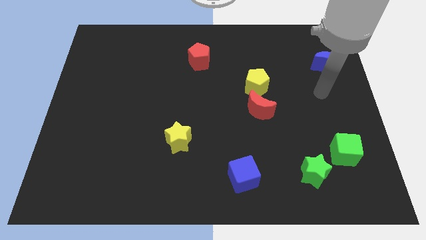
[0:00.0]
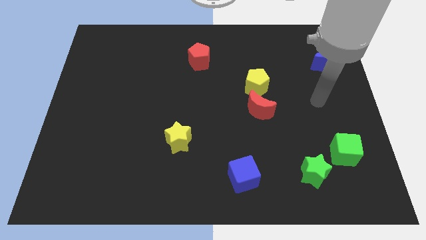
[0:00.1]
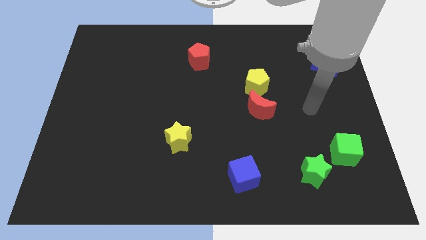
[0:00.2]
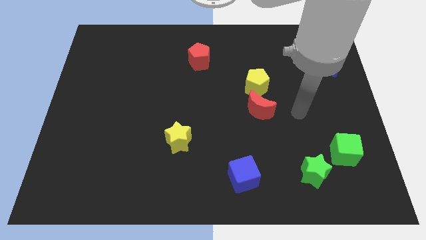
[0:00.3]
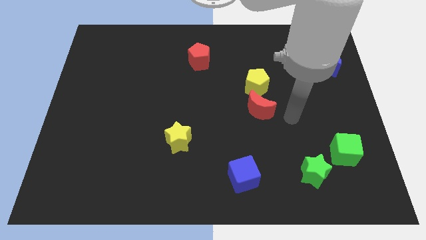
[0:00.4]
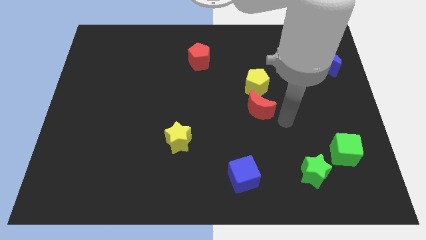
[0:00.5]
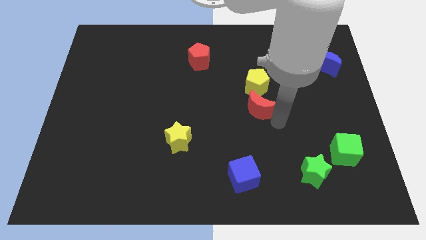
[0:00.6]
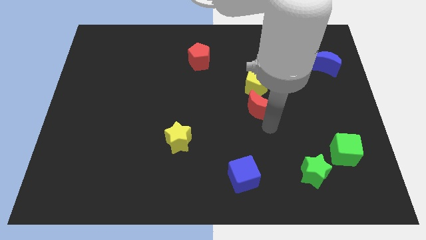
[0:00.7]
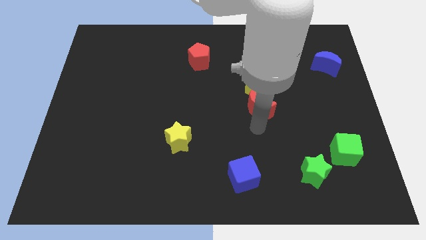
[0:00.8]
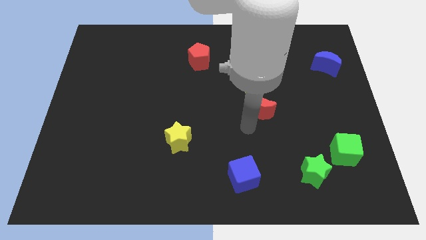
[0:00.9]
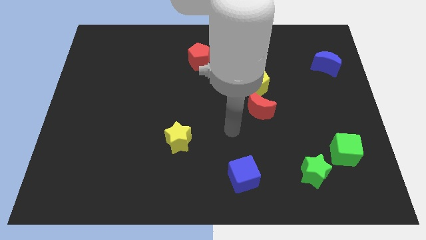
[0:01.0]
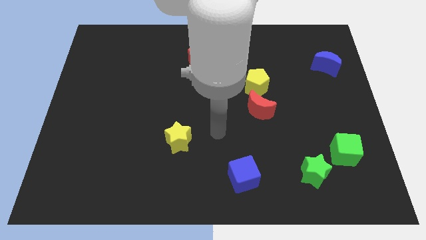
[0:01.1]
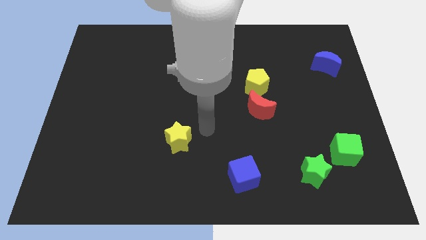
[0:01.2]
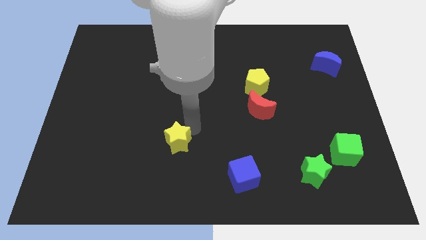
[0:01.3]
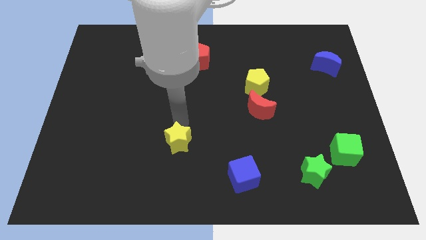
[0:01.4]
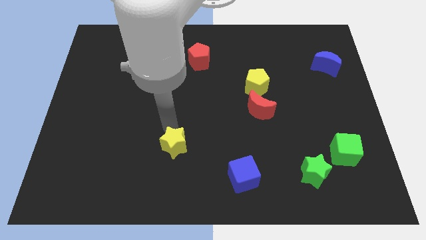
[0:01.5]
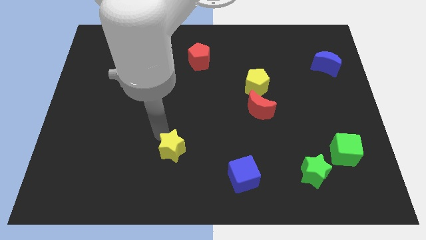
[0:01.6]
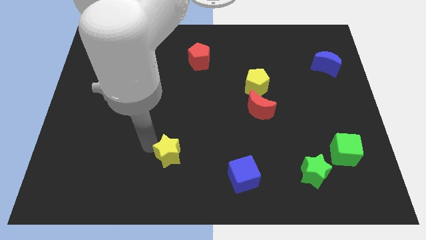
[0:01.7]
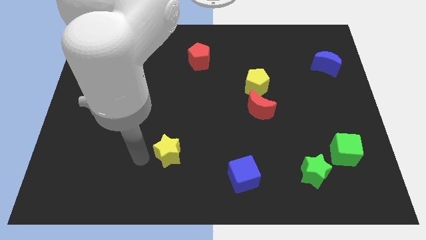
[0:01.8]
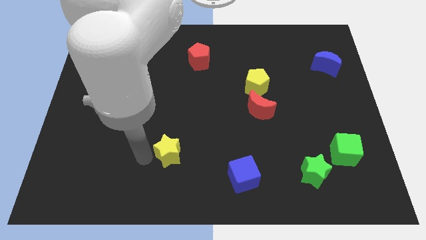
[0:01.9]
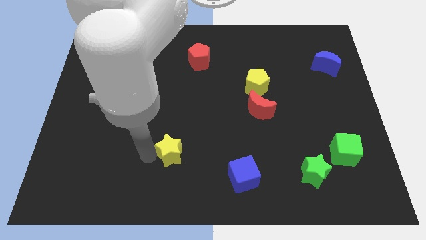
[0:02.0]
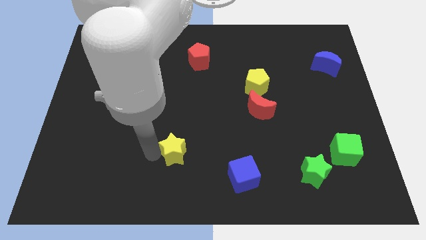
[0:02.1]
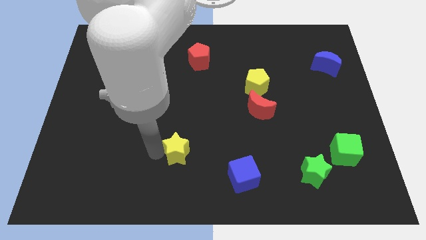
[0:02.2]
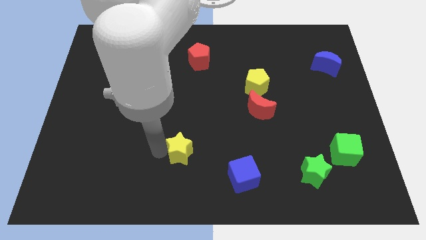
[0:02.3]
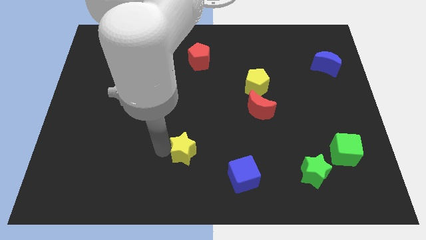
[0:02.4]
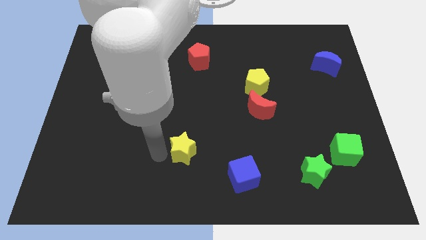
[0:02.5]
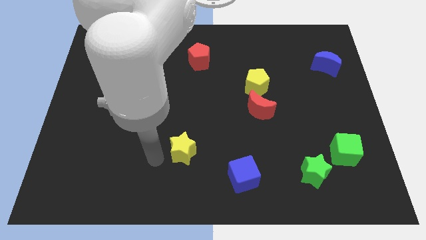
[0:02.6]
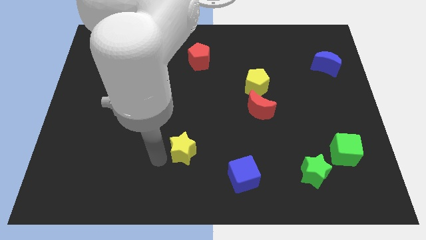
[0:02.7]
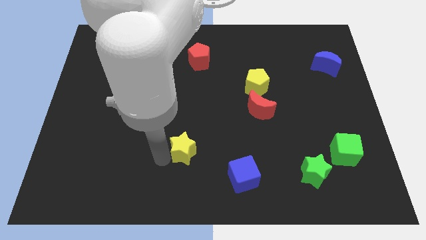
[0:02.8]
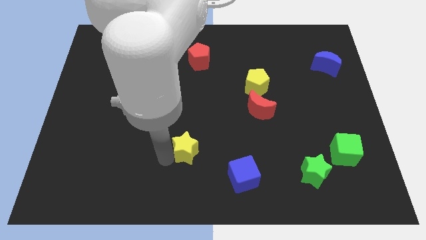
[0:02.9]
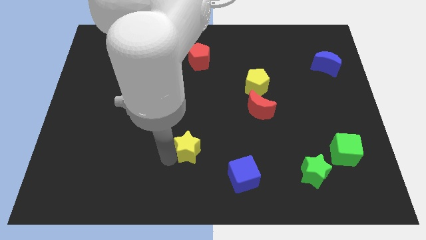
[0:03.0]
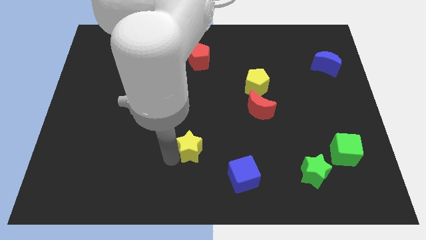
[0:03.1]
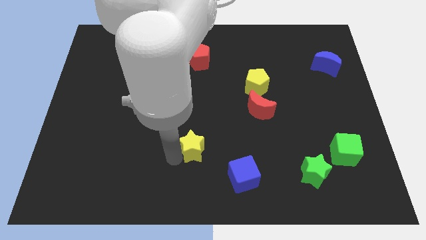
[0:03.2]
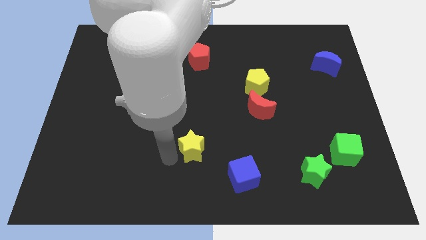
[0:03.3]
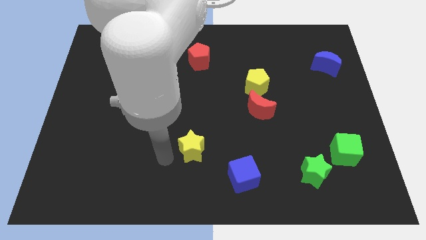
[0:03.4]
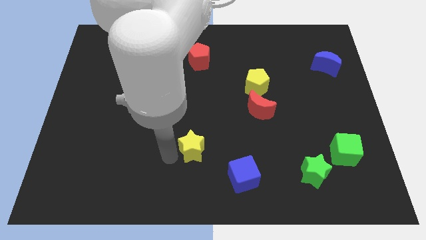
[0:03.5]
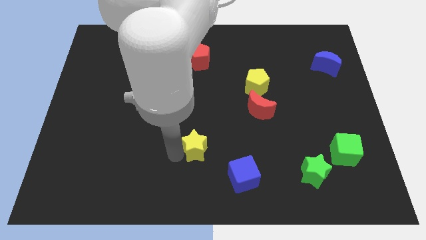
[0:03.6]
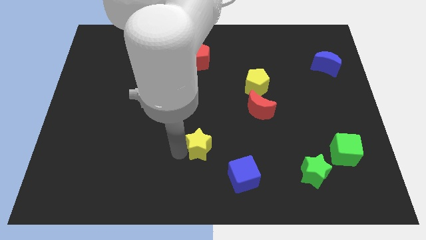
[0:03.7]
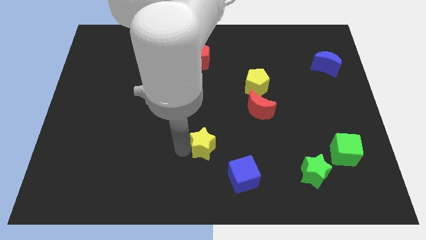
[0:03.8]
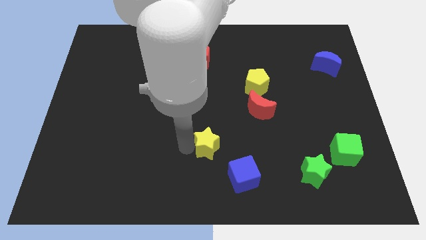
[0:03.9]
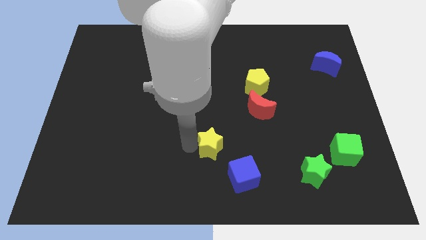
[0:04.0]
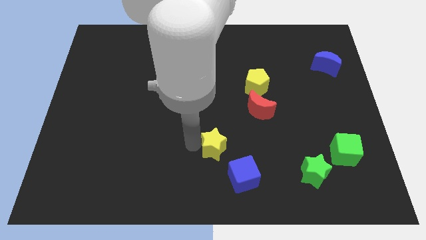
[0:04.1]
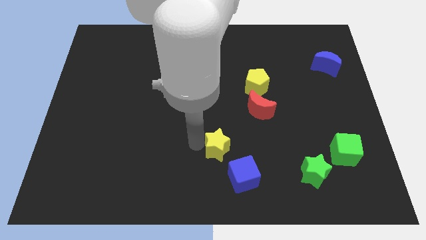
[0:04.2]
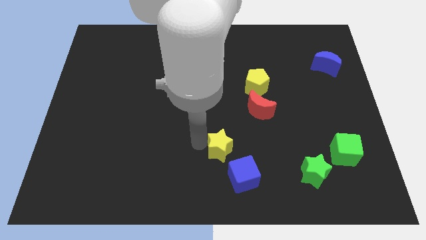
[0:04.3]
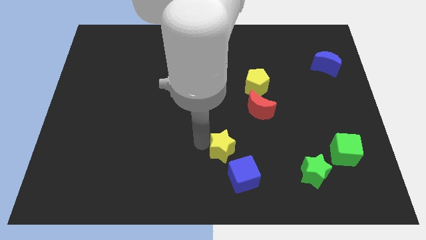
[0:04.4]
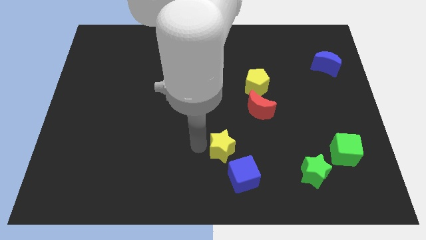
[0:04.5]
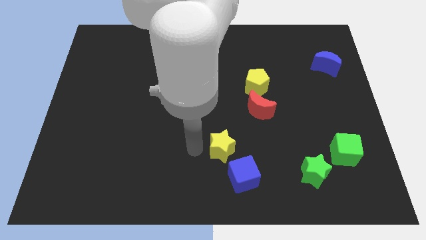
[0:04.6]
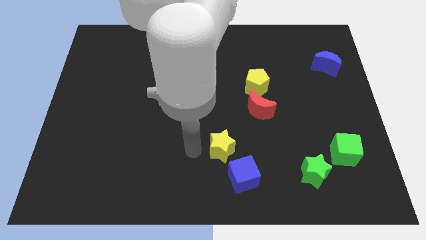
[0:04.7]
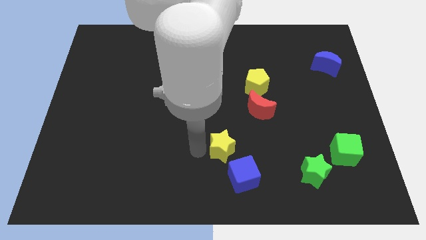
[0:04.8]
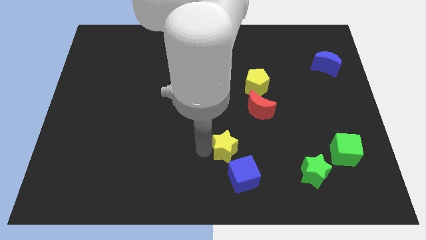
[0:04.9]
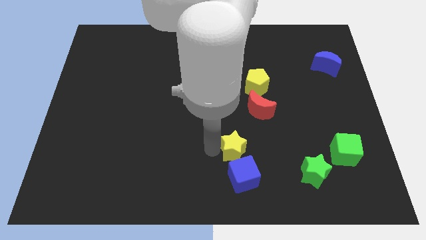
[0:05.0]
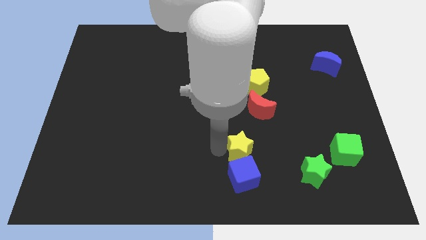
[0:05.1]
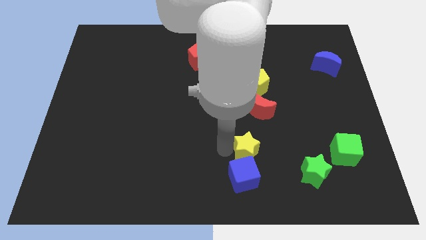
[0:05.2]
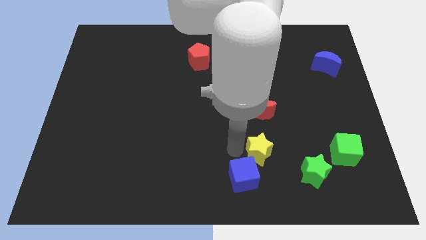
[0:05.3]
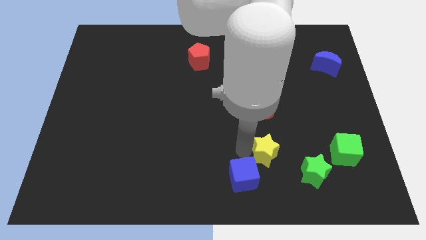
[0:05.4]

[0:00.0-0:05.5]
push the yellow star diagonally up and to the left of the green star

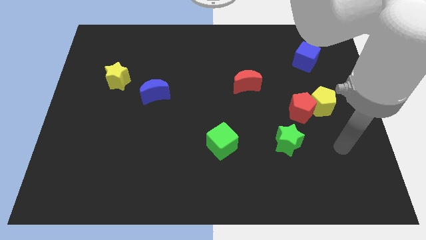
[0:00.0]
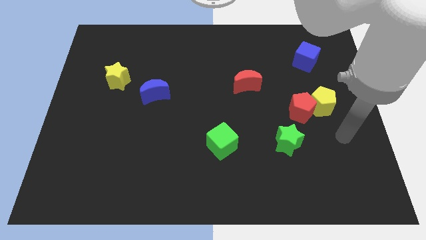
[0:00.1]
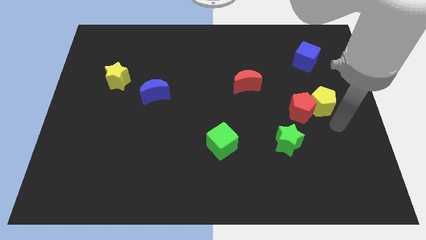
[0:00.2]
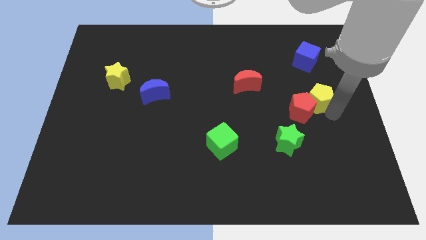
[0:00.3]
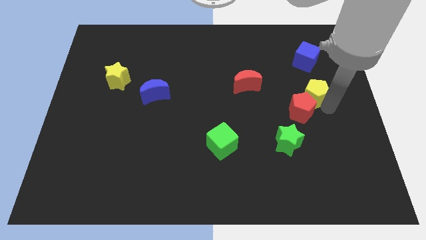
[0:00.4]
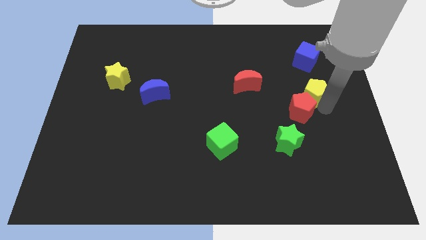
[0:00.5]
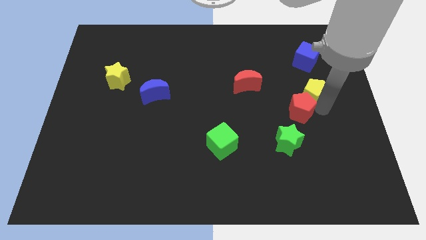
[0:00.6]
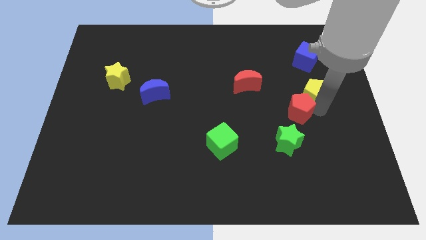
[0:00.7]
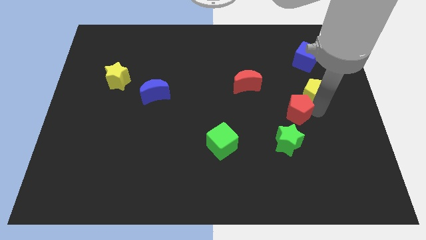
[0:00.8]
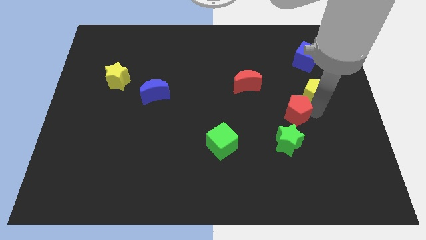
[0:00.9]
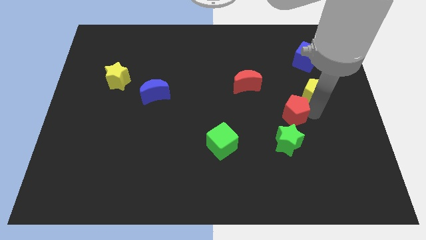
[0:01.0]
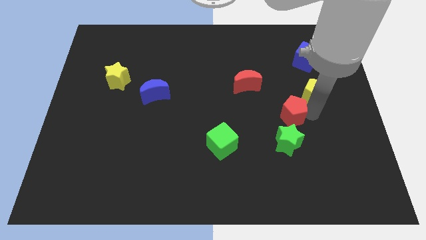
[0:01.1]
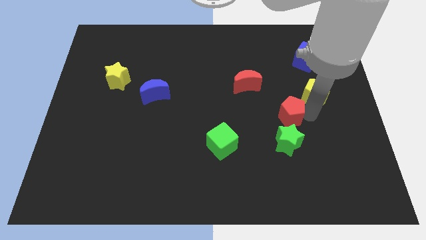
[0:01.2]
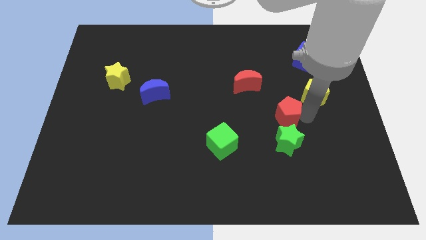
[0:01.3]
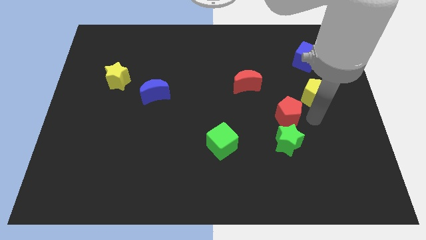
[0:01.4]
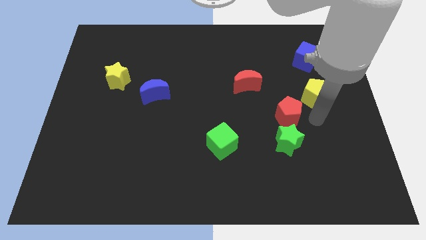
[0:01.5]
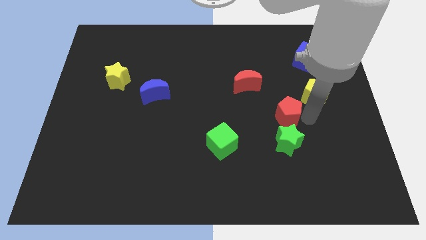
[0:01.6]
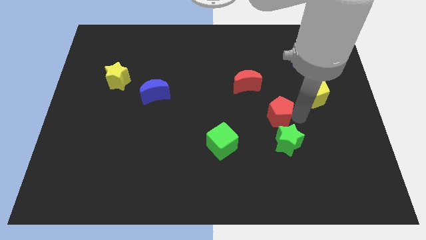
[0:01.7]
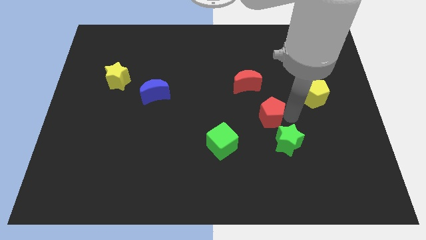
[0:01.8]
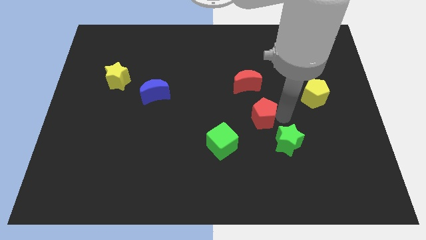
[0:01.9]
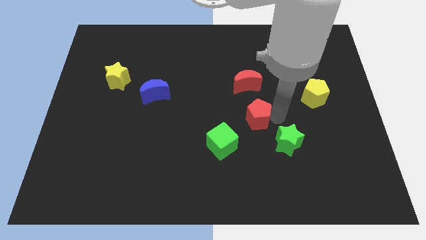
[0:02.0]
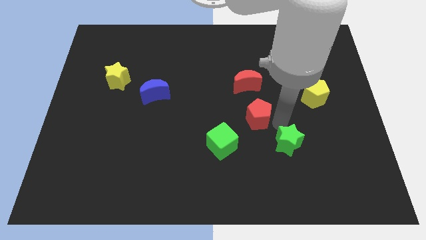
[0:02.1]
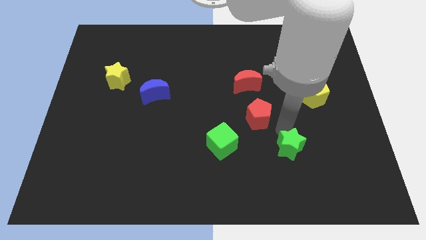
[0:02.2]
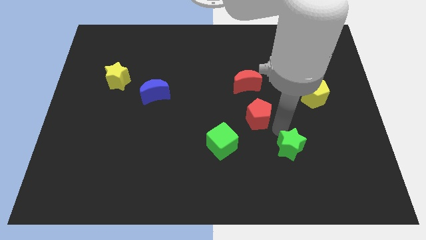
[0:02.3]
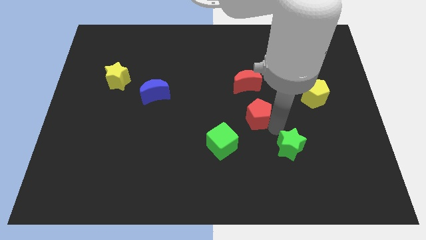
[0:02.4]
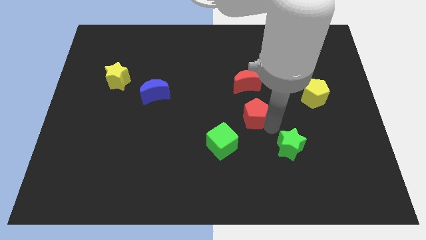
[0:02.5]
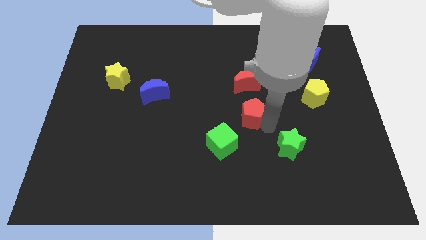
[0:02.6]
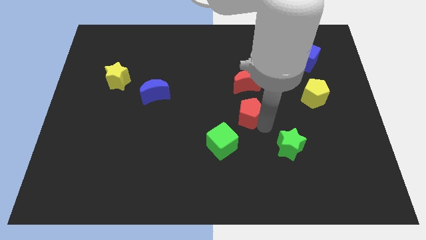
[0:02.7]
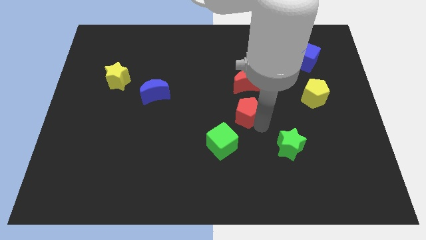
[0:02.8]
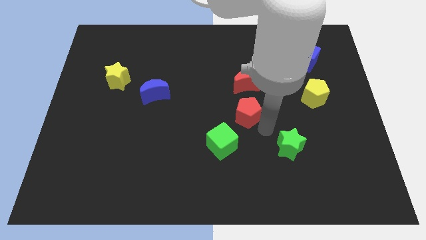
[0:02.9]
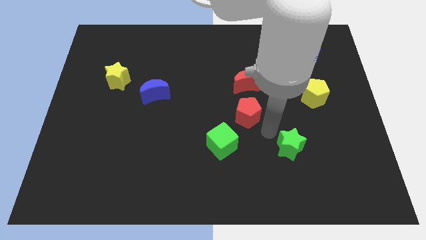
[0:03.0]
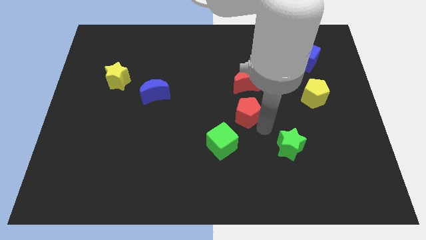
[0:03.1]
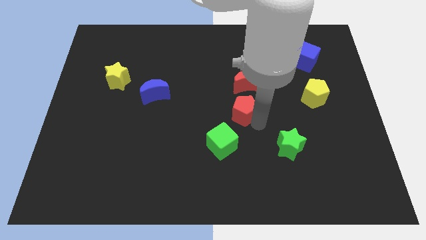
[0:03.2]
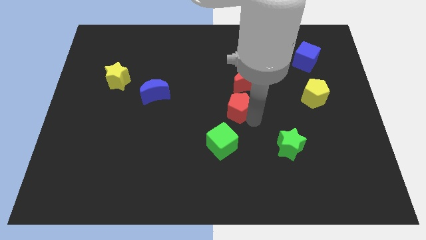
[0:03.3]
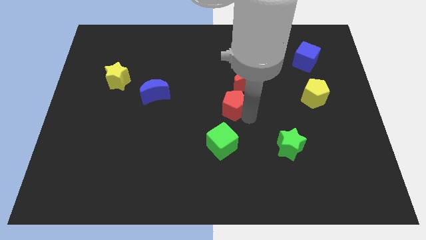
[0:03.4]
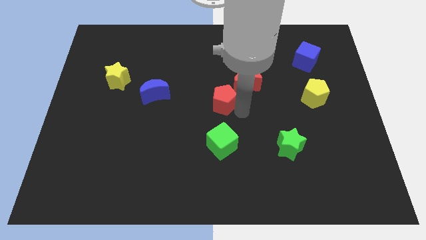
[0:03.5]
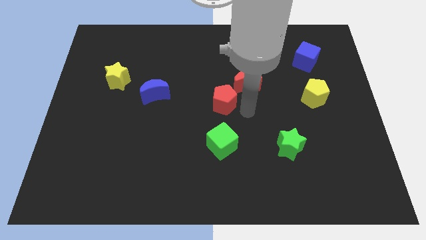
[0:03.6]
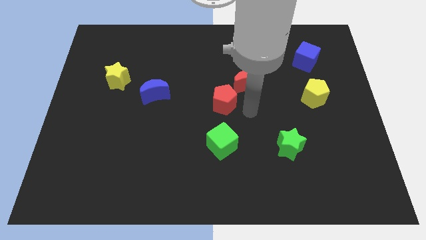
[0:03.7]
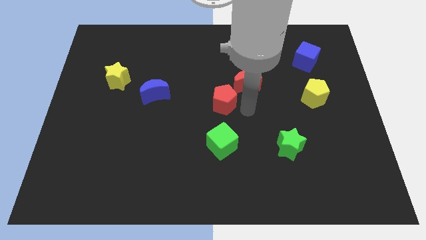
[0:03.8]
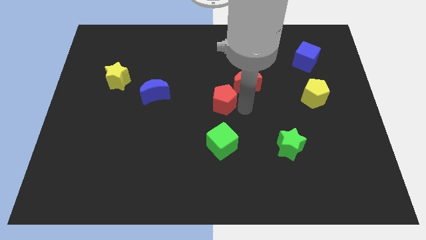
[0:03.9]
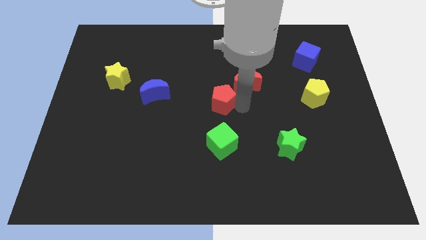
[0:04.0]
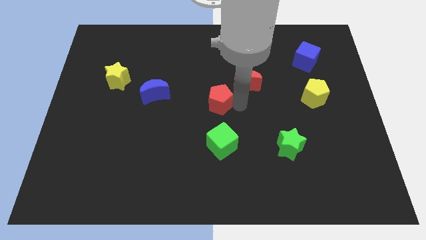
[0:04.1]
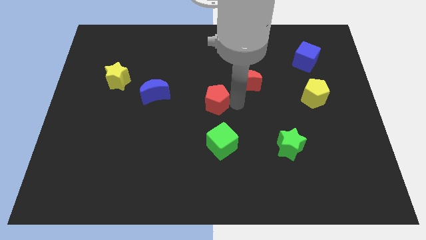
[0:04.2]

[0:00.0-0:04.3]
put the red pentagon to the right of the blue moon
